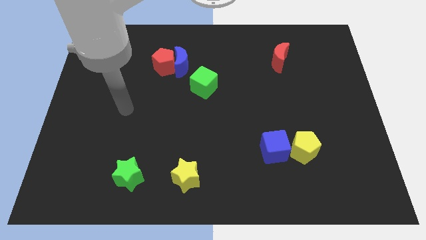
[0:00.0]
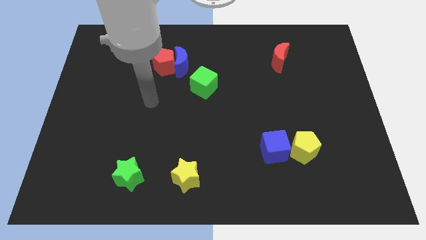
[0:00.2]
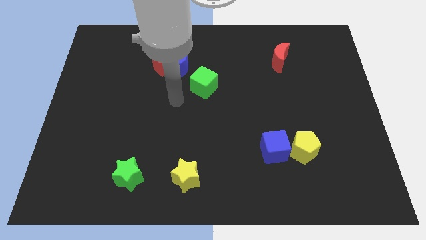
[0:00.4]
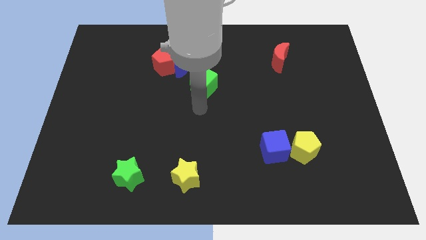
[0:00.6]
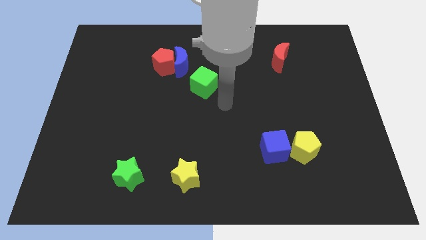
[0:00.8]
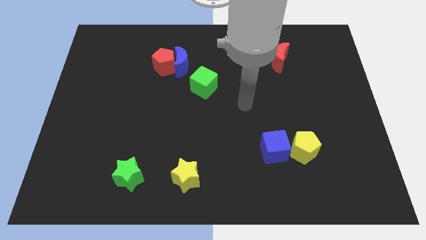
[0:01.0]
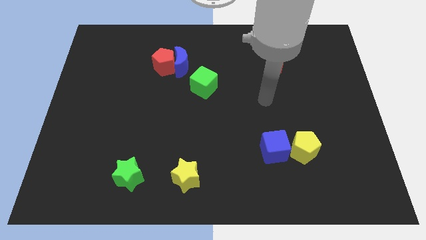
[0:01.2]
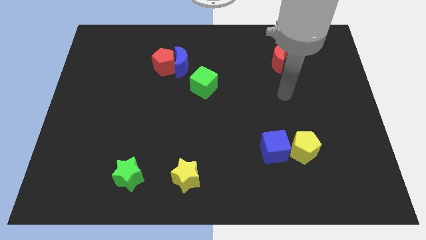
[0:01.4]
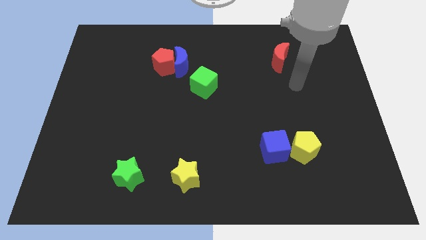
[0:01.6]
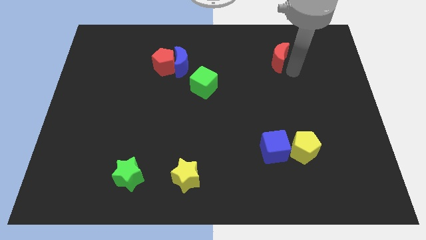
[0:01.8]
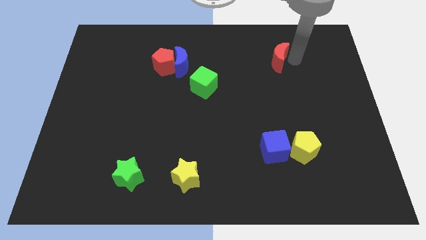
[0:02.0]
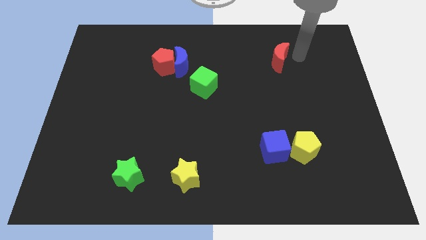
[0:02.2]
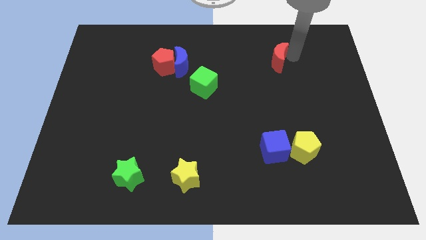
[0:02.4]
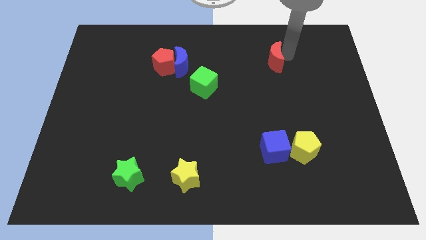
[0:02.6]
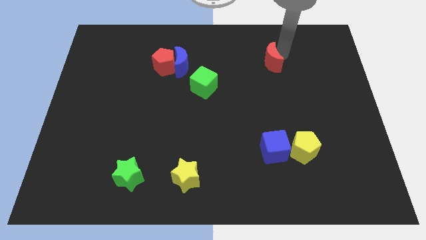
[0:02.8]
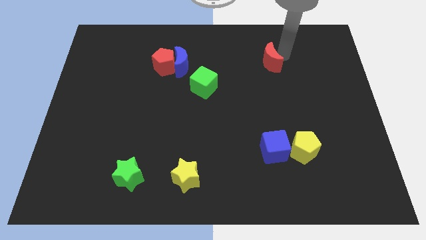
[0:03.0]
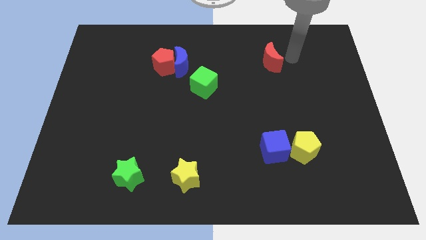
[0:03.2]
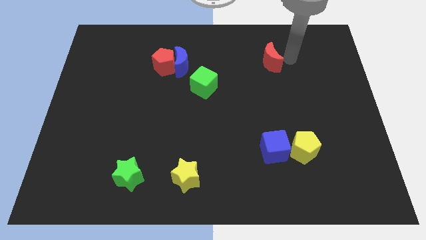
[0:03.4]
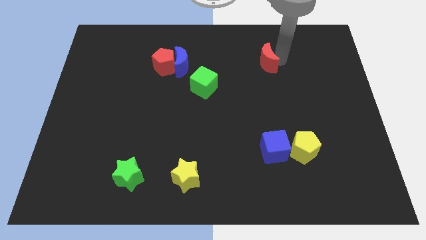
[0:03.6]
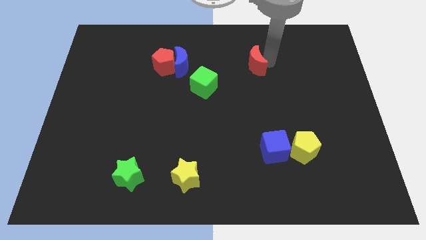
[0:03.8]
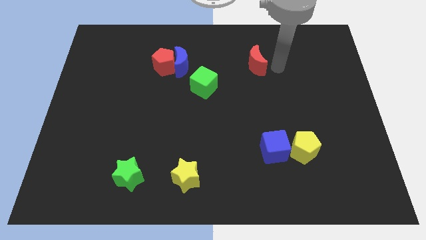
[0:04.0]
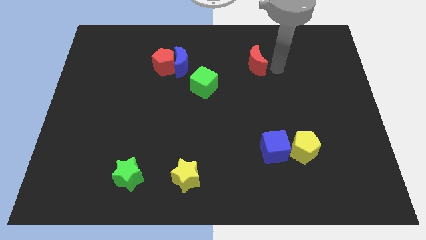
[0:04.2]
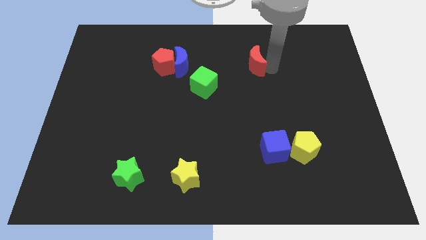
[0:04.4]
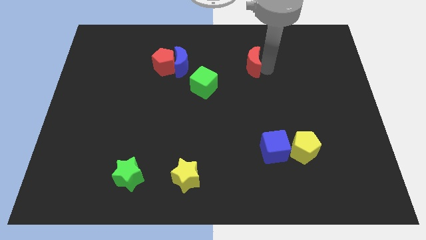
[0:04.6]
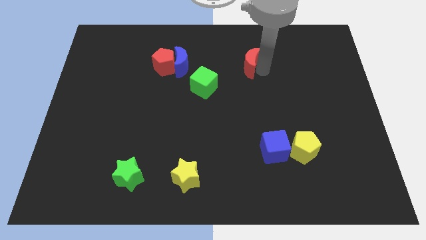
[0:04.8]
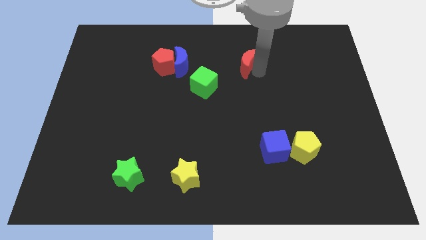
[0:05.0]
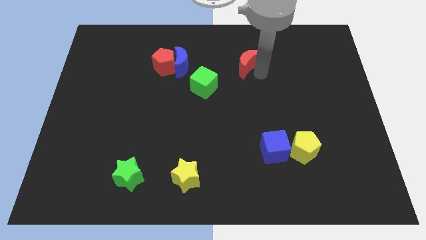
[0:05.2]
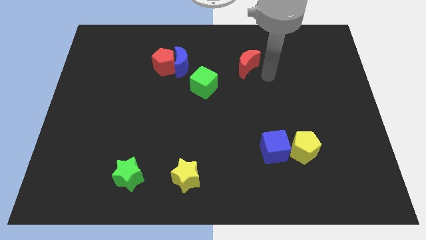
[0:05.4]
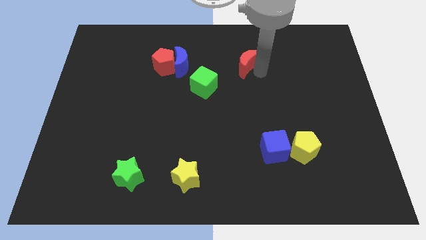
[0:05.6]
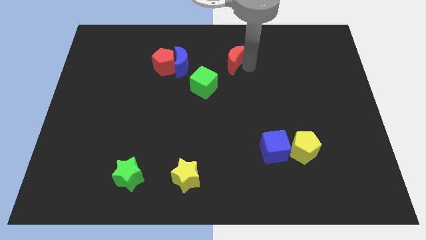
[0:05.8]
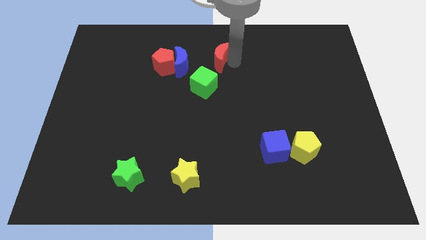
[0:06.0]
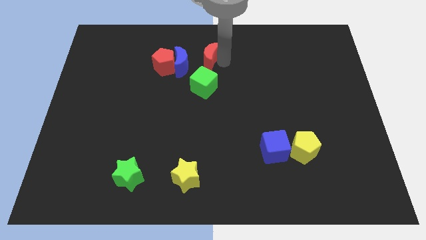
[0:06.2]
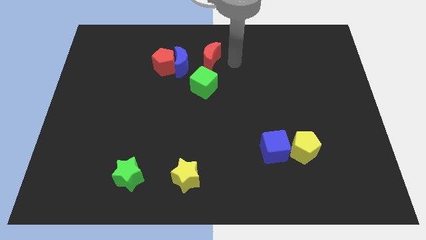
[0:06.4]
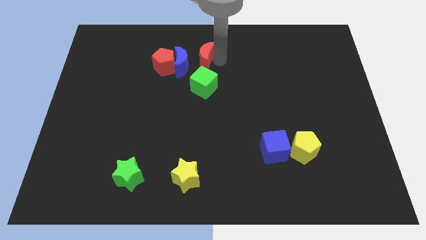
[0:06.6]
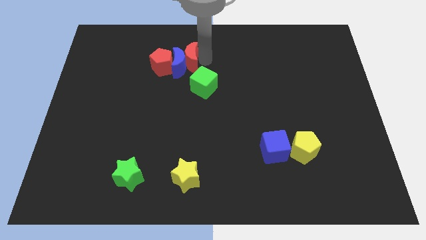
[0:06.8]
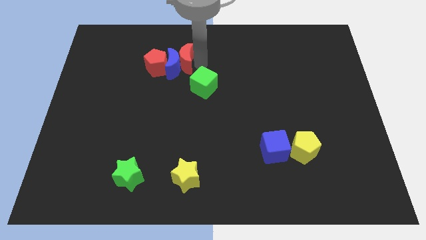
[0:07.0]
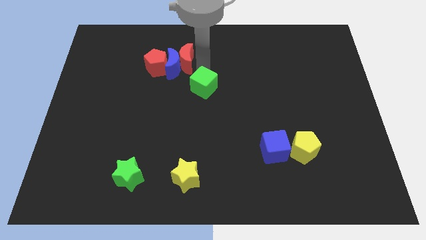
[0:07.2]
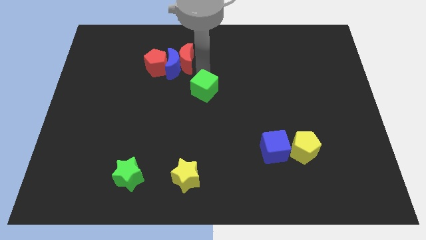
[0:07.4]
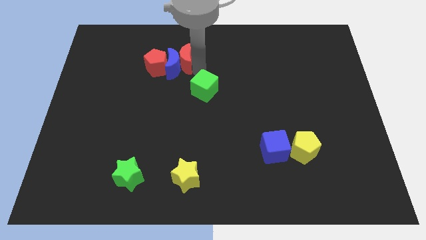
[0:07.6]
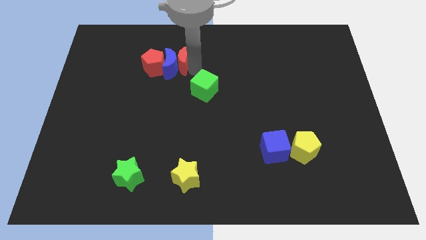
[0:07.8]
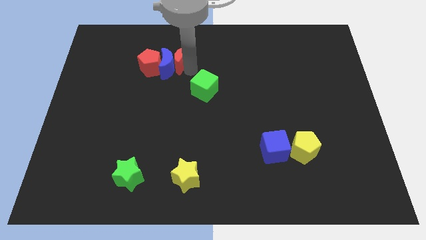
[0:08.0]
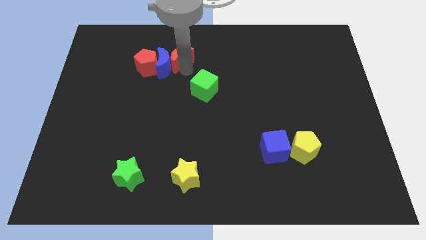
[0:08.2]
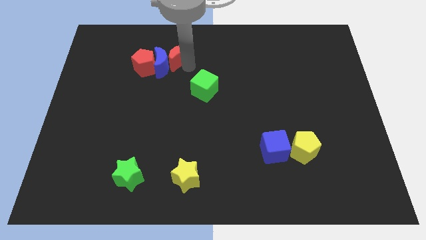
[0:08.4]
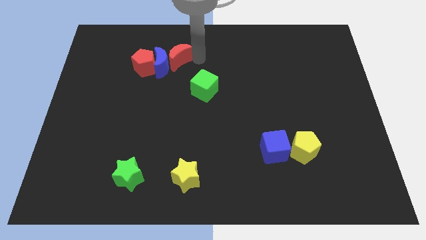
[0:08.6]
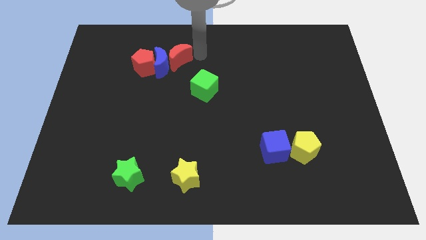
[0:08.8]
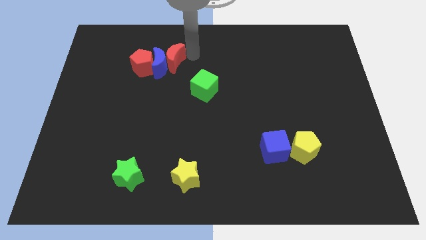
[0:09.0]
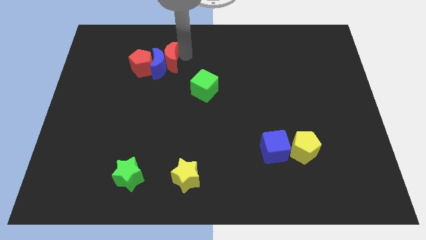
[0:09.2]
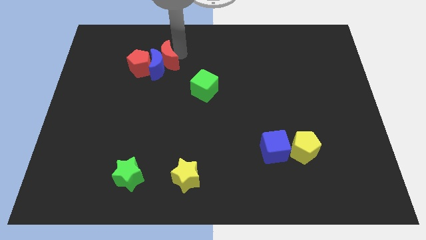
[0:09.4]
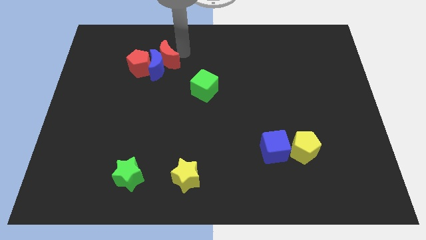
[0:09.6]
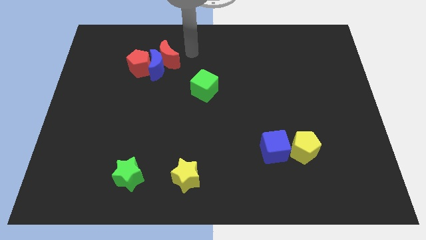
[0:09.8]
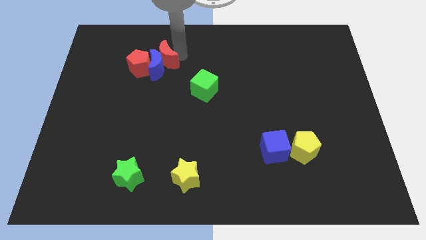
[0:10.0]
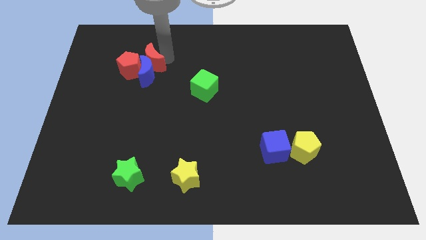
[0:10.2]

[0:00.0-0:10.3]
put the red moon towards the red pentagon

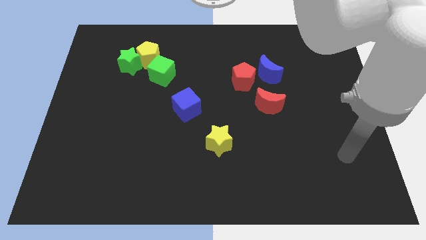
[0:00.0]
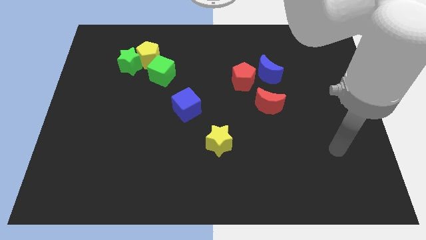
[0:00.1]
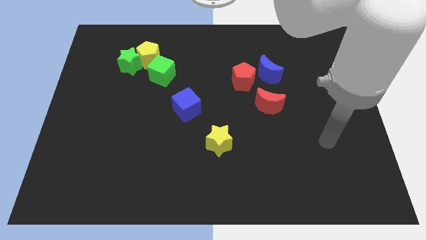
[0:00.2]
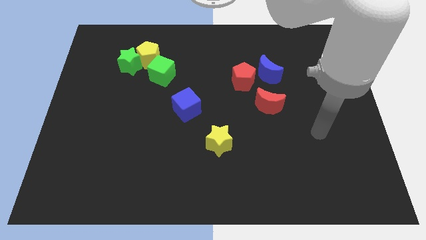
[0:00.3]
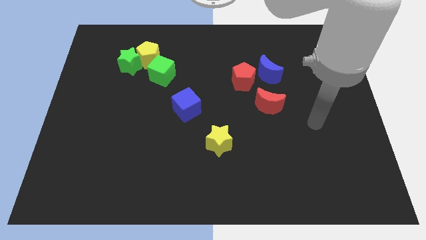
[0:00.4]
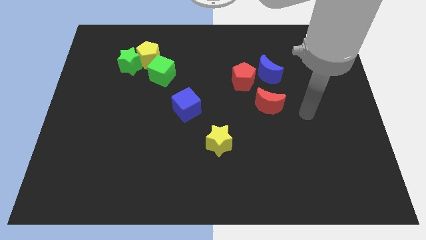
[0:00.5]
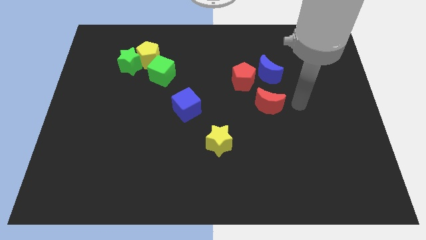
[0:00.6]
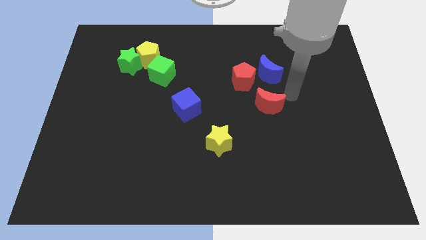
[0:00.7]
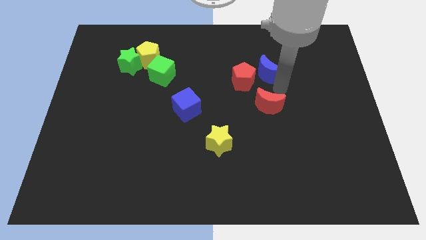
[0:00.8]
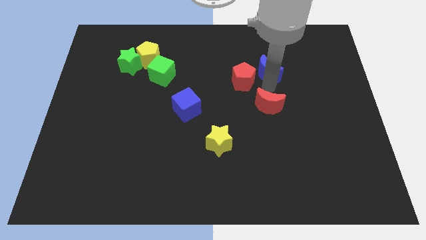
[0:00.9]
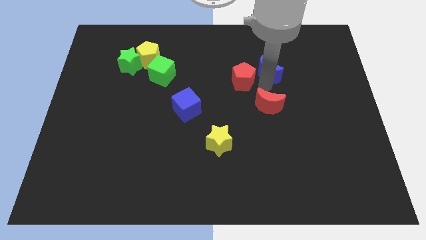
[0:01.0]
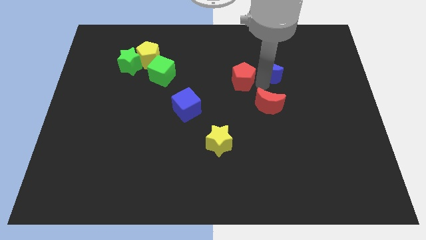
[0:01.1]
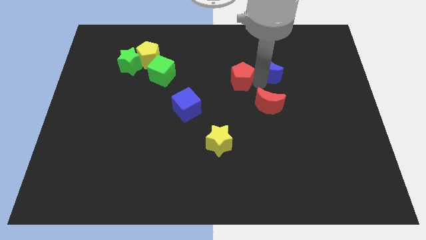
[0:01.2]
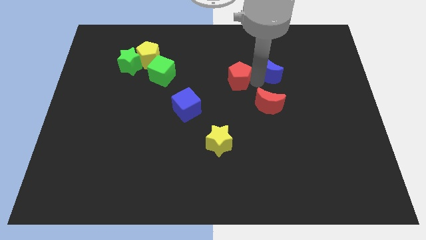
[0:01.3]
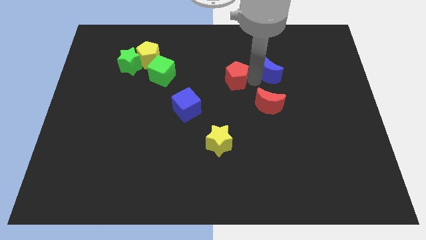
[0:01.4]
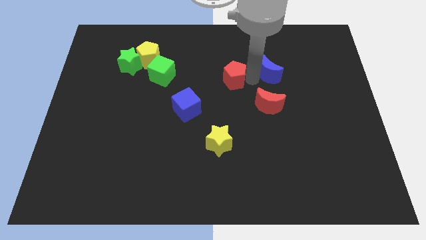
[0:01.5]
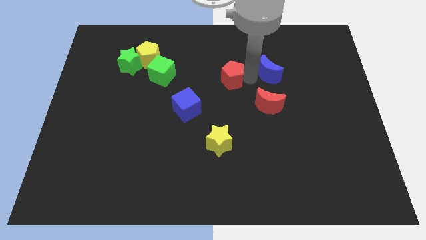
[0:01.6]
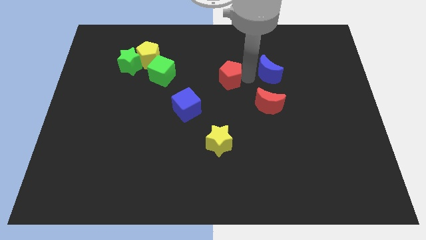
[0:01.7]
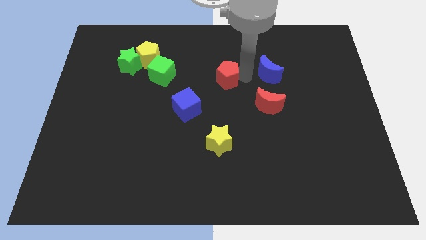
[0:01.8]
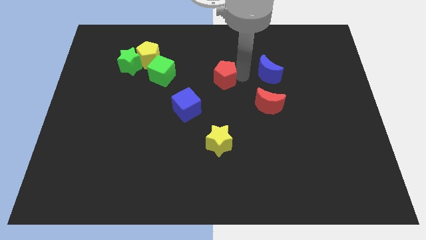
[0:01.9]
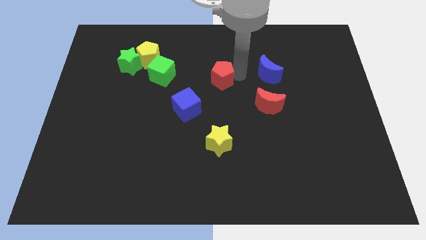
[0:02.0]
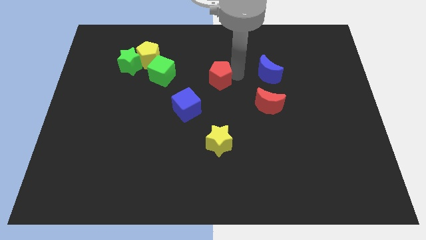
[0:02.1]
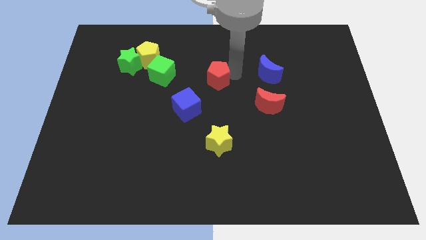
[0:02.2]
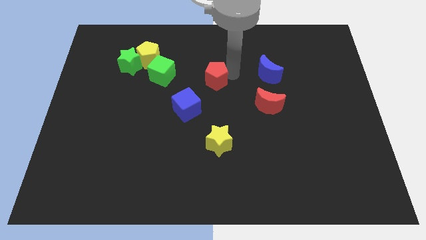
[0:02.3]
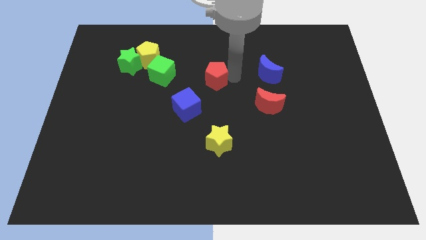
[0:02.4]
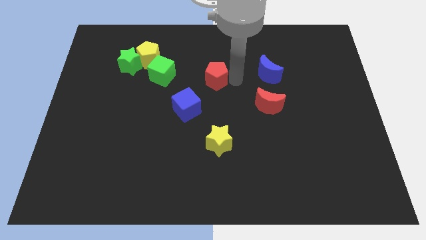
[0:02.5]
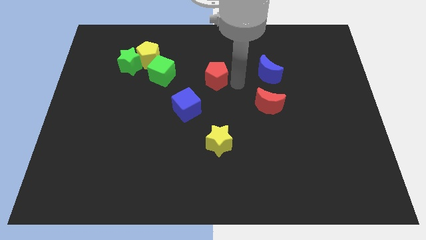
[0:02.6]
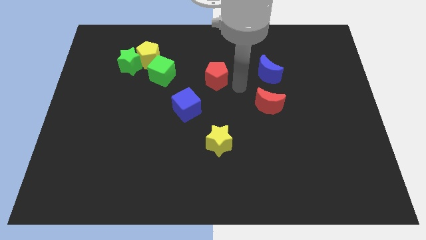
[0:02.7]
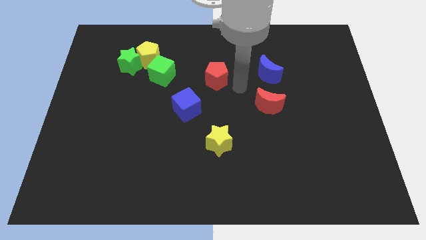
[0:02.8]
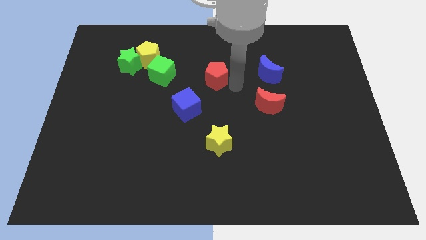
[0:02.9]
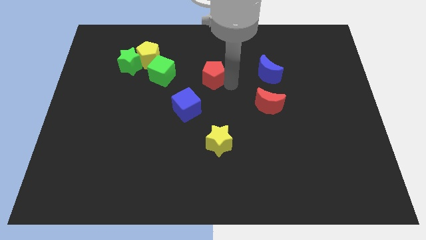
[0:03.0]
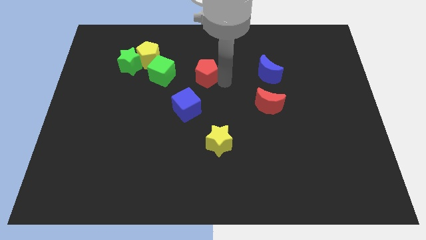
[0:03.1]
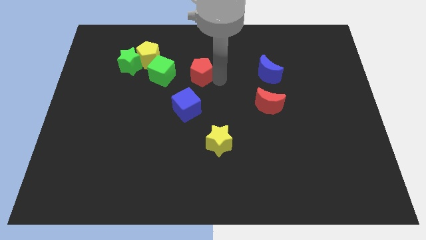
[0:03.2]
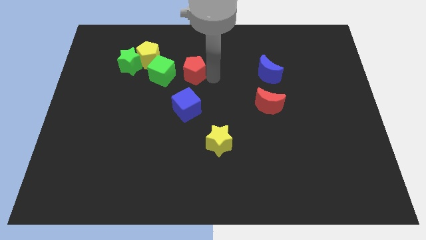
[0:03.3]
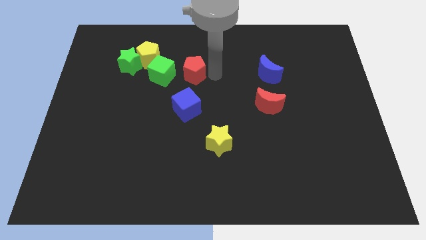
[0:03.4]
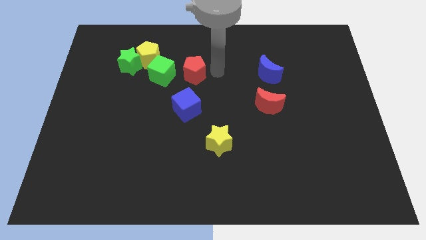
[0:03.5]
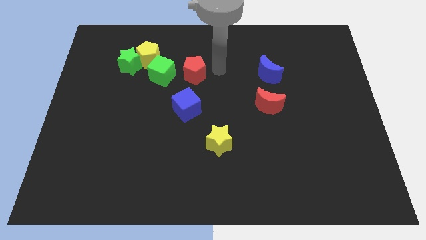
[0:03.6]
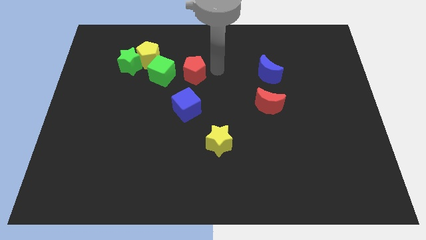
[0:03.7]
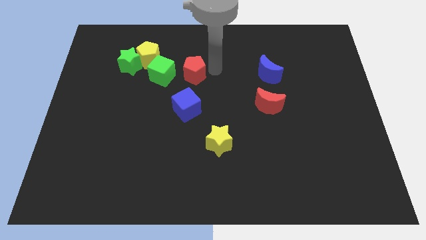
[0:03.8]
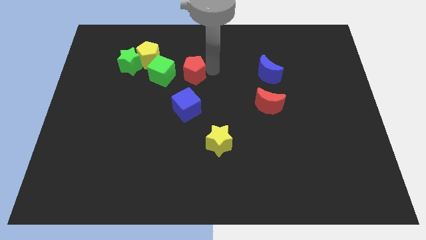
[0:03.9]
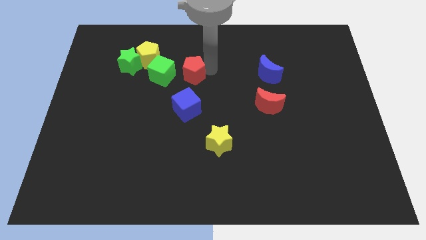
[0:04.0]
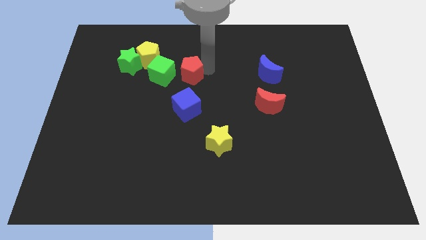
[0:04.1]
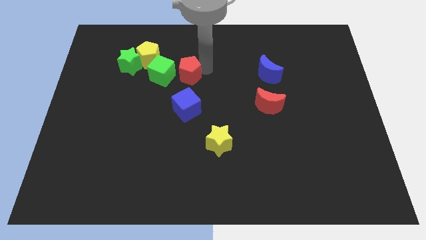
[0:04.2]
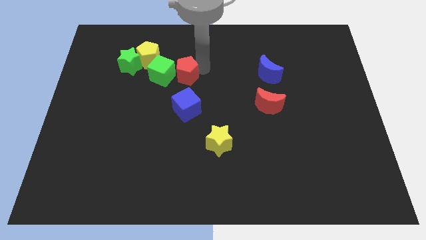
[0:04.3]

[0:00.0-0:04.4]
push the red pentagon close to the green cube
